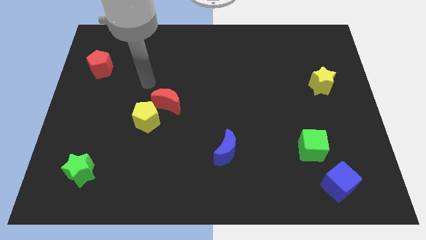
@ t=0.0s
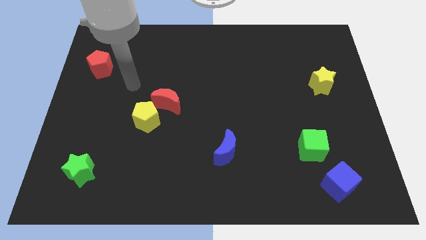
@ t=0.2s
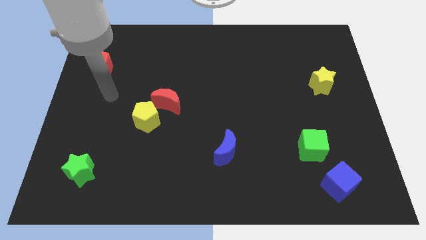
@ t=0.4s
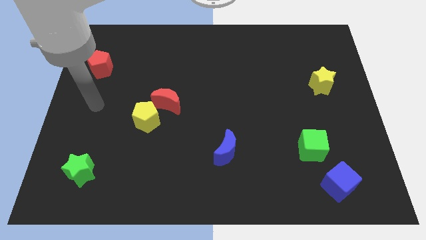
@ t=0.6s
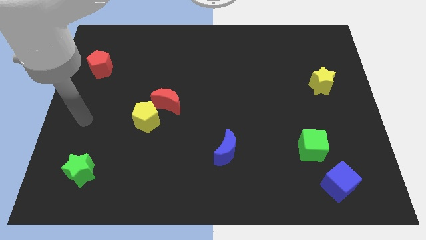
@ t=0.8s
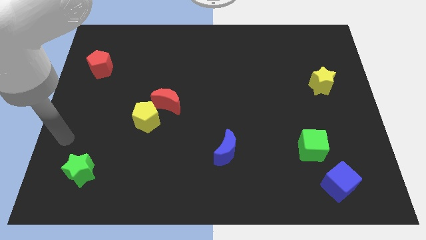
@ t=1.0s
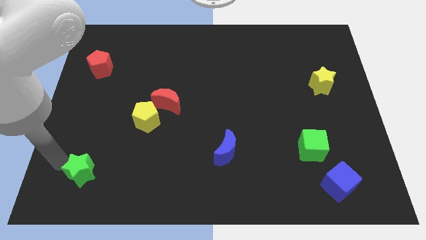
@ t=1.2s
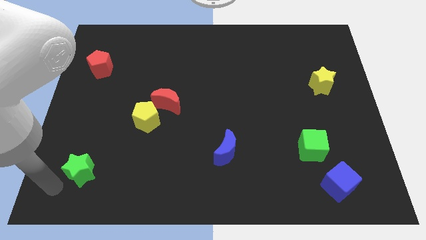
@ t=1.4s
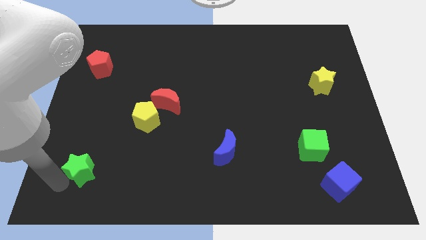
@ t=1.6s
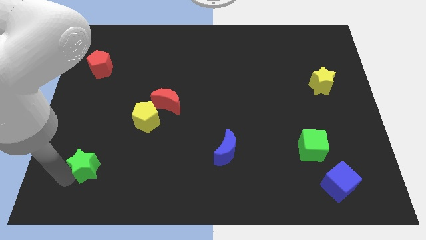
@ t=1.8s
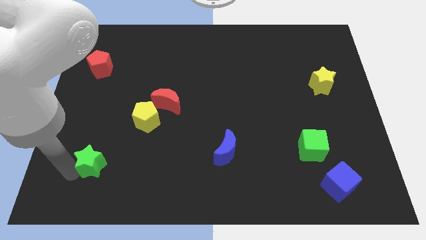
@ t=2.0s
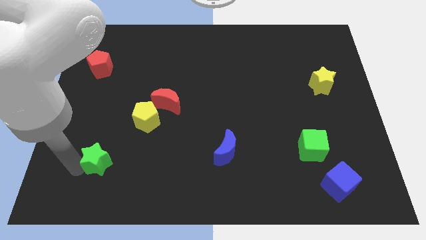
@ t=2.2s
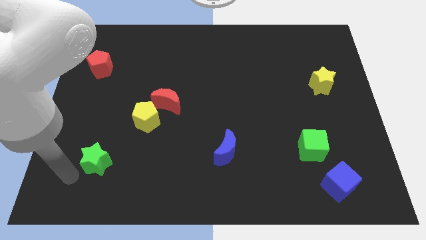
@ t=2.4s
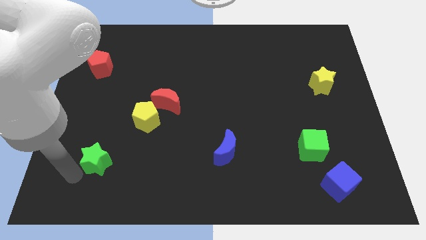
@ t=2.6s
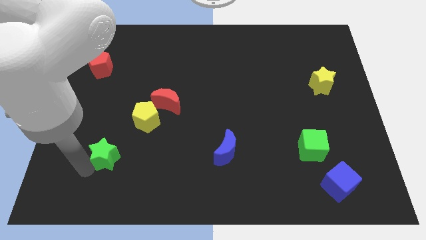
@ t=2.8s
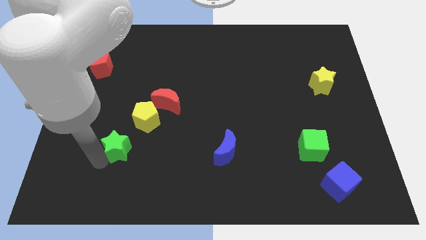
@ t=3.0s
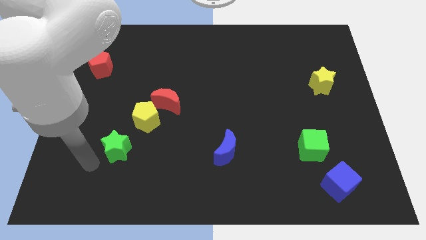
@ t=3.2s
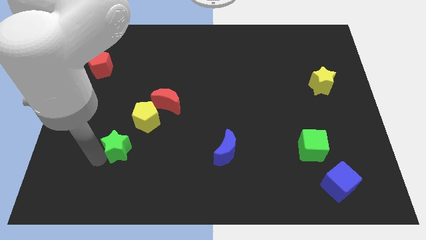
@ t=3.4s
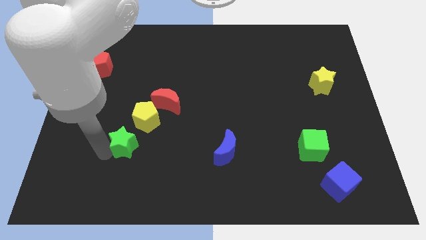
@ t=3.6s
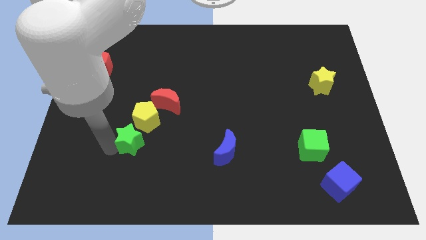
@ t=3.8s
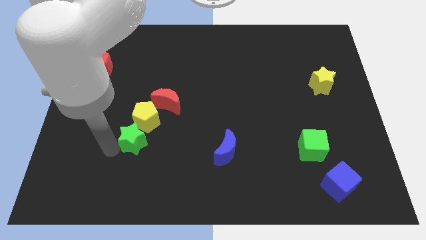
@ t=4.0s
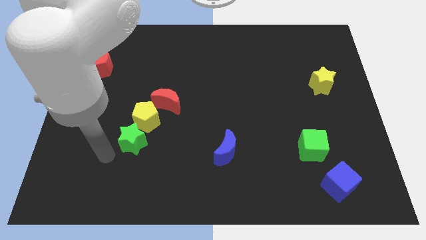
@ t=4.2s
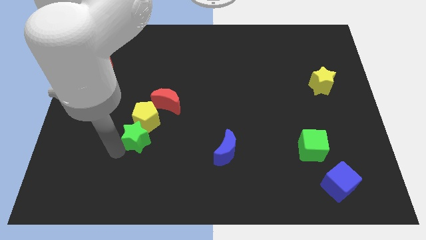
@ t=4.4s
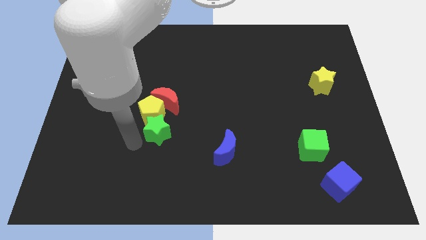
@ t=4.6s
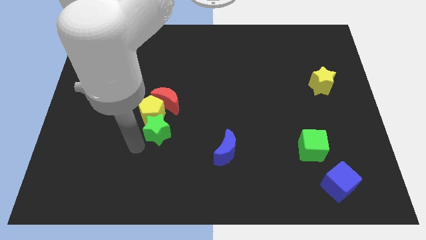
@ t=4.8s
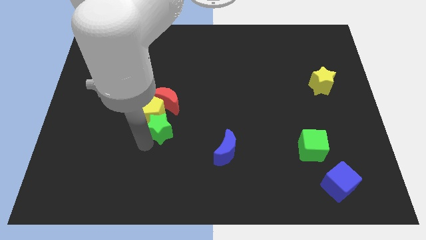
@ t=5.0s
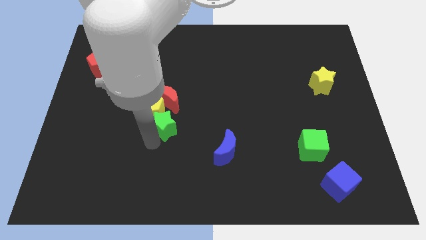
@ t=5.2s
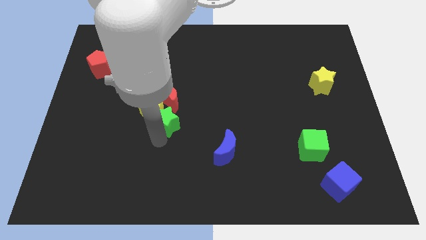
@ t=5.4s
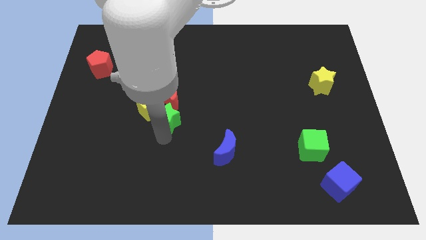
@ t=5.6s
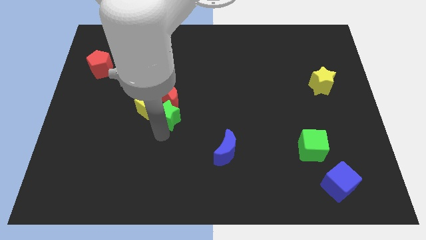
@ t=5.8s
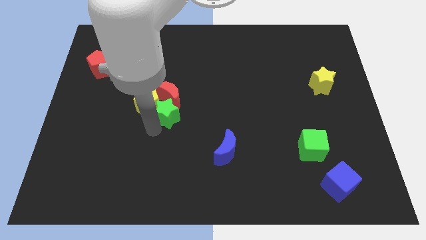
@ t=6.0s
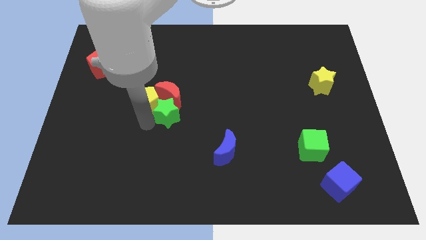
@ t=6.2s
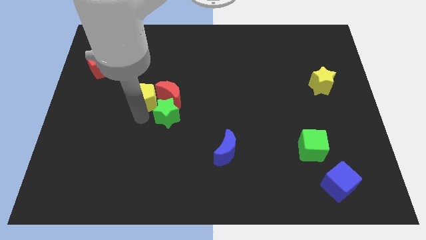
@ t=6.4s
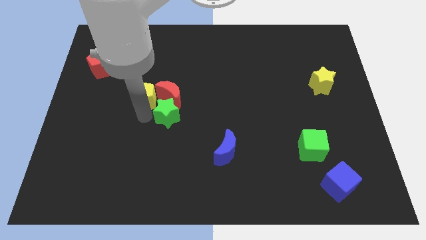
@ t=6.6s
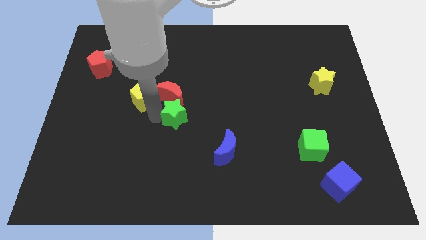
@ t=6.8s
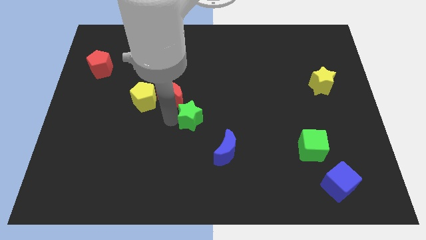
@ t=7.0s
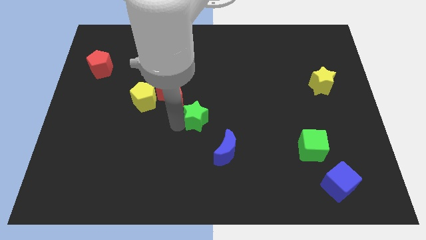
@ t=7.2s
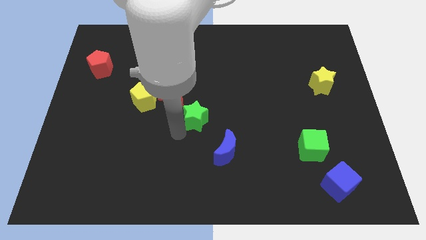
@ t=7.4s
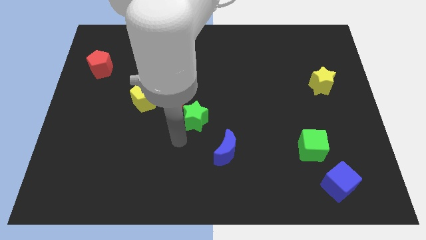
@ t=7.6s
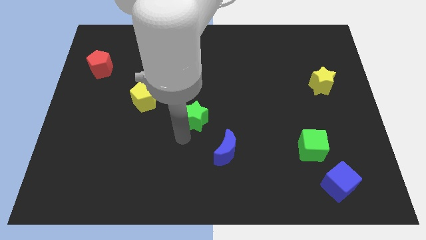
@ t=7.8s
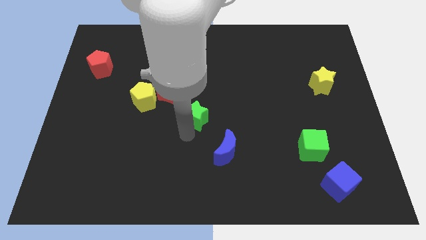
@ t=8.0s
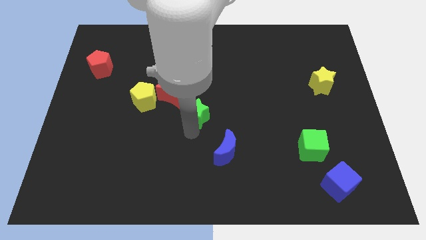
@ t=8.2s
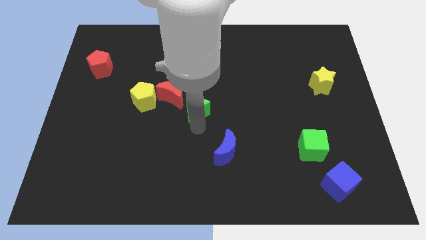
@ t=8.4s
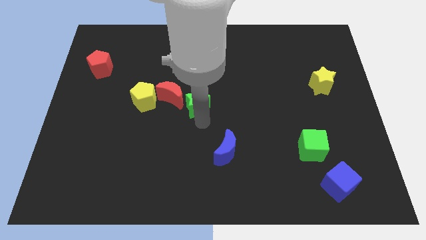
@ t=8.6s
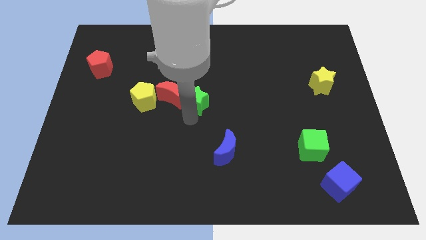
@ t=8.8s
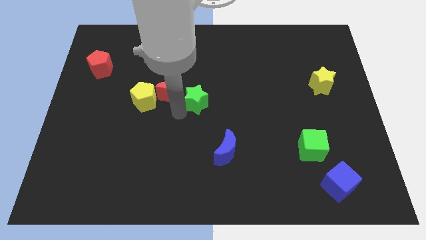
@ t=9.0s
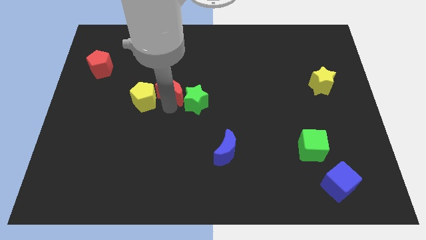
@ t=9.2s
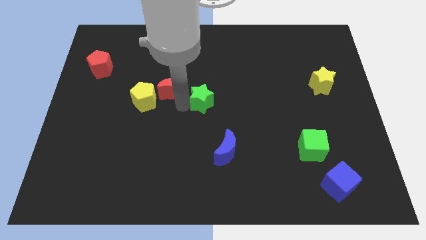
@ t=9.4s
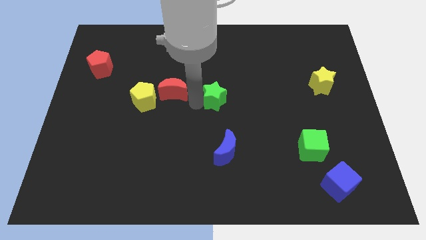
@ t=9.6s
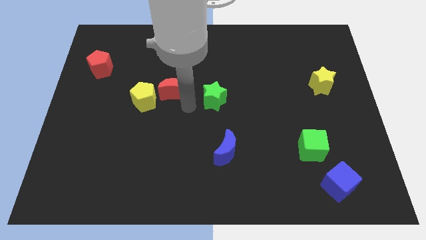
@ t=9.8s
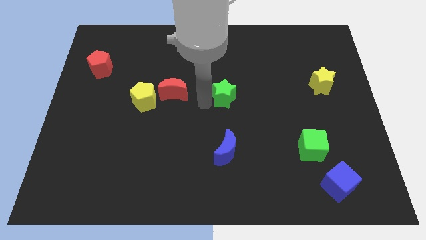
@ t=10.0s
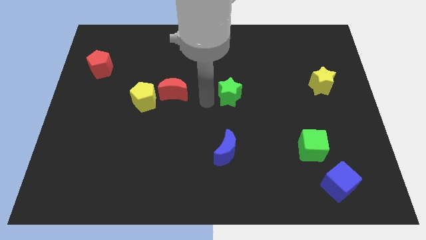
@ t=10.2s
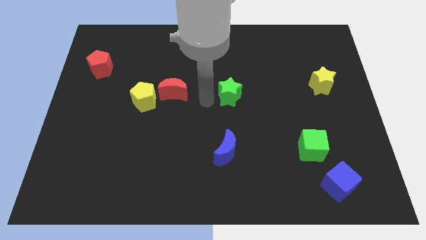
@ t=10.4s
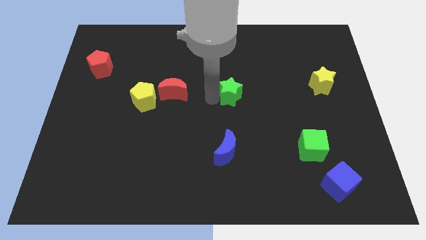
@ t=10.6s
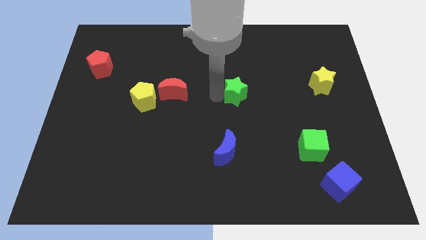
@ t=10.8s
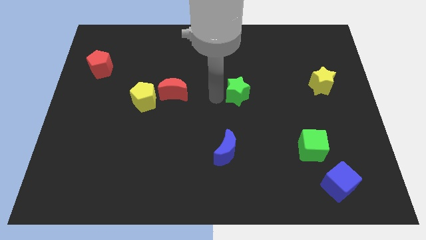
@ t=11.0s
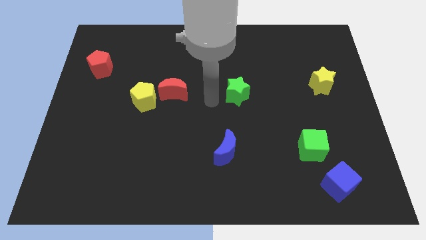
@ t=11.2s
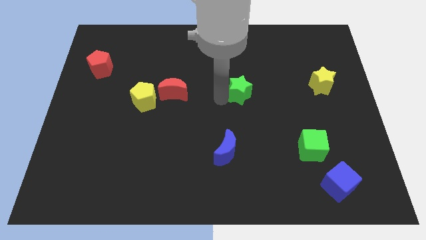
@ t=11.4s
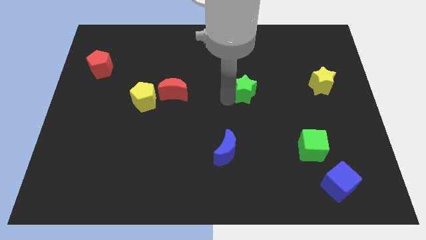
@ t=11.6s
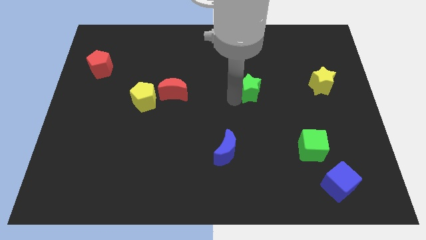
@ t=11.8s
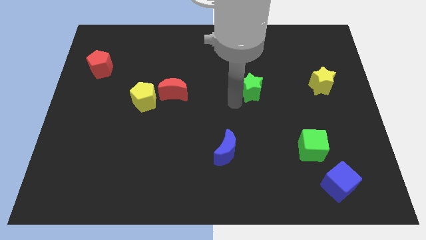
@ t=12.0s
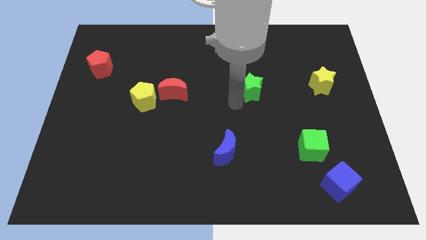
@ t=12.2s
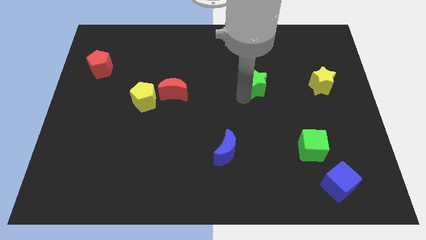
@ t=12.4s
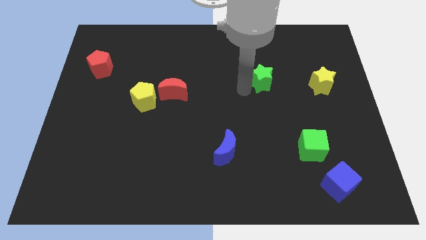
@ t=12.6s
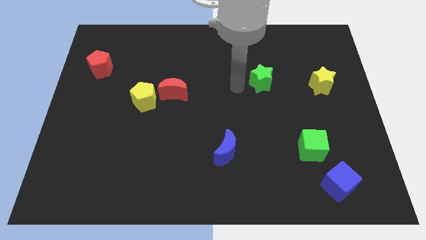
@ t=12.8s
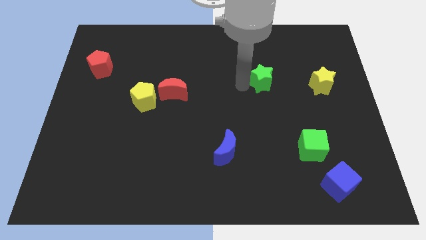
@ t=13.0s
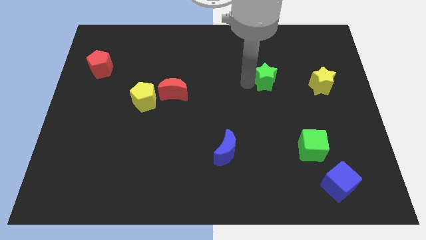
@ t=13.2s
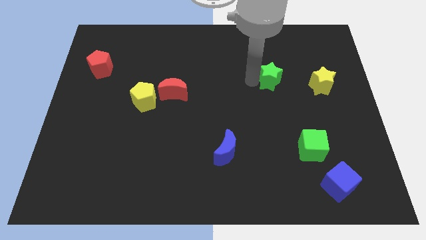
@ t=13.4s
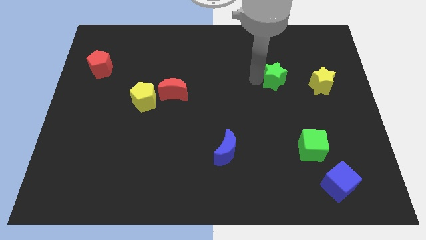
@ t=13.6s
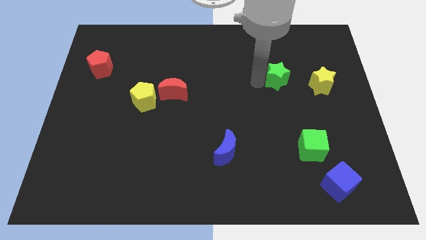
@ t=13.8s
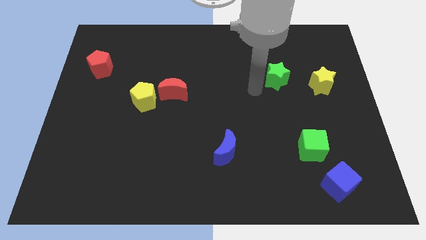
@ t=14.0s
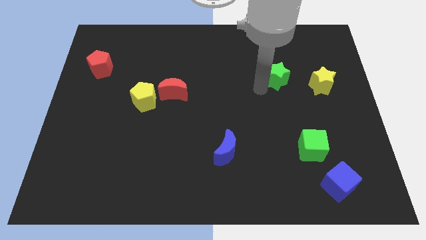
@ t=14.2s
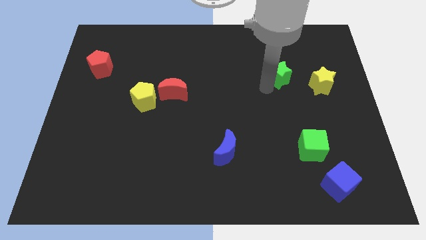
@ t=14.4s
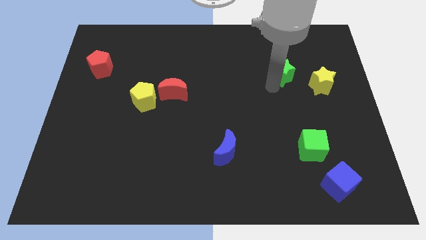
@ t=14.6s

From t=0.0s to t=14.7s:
move the green star to the top left of the yellow star
